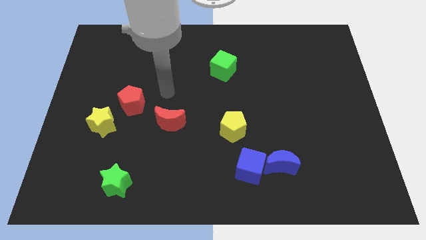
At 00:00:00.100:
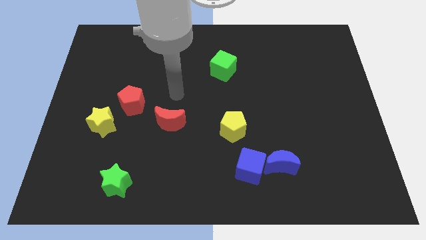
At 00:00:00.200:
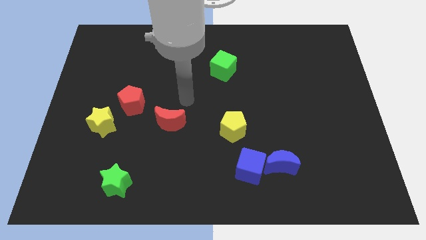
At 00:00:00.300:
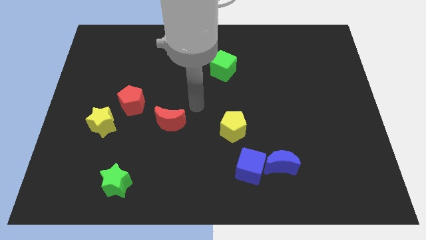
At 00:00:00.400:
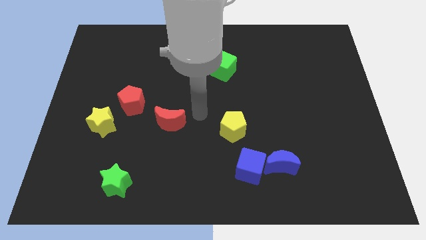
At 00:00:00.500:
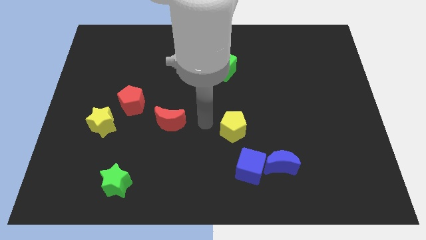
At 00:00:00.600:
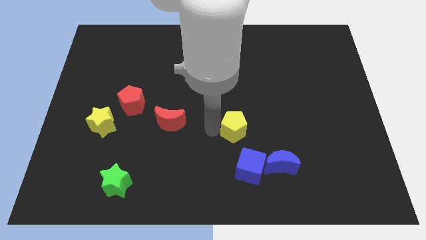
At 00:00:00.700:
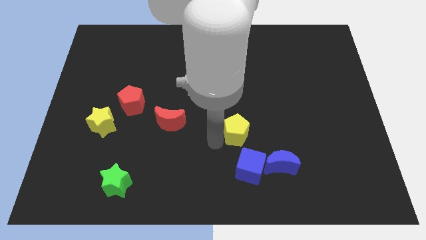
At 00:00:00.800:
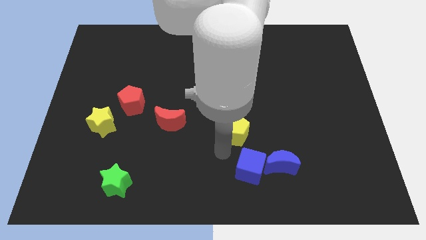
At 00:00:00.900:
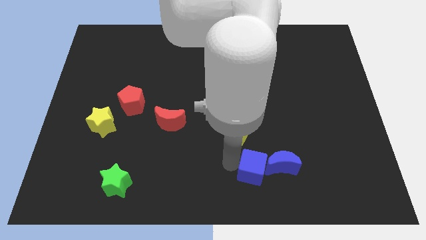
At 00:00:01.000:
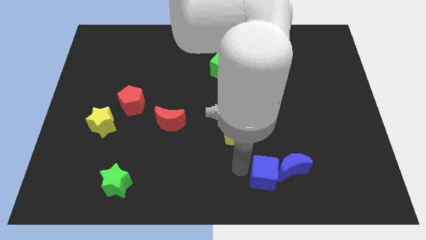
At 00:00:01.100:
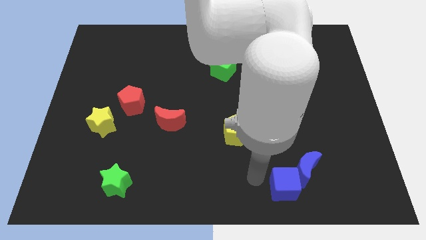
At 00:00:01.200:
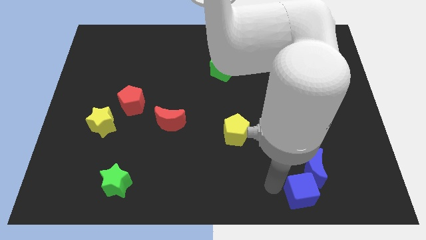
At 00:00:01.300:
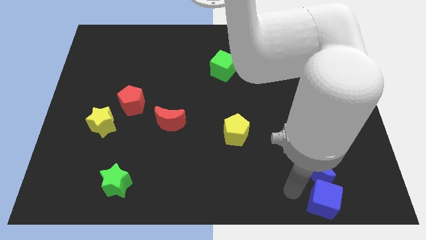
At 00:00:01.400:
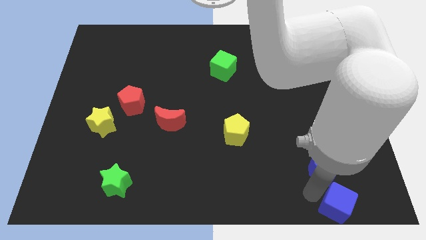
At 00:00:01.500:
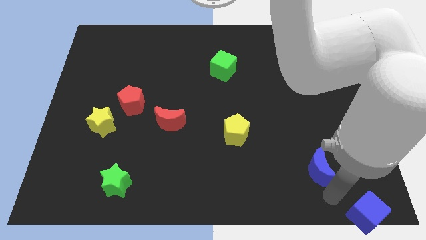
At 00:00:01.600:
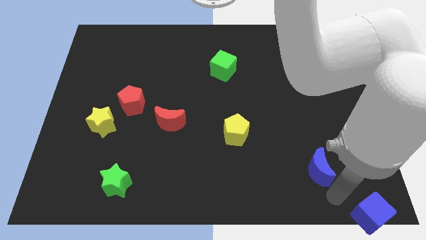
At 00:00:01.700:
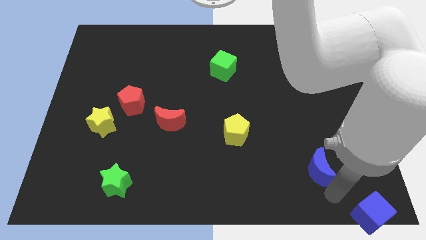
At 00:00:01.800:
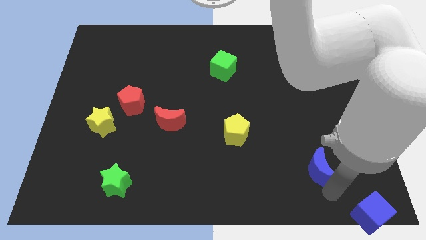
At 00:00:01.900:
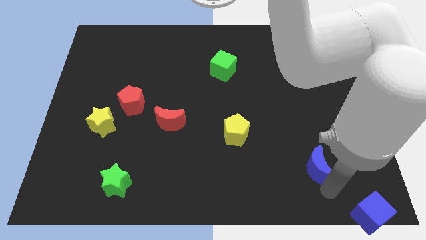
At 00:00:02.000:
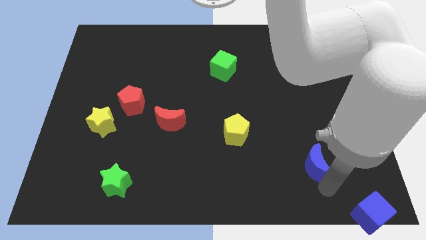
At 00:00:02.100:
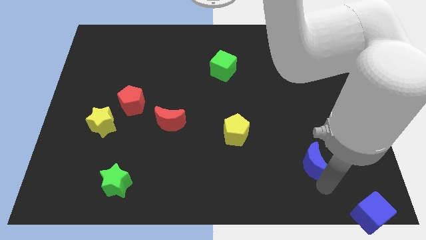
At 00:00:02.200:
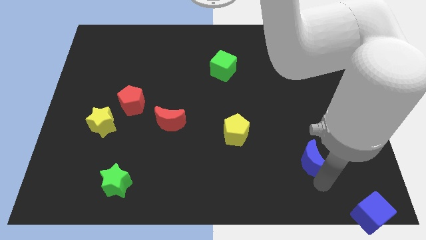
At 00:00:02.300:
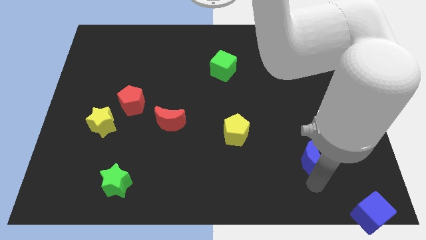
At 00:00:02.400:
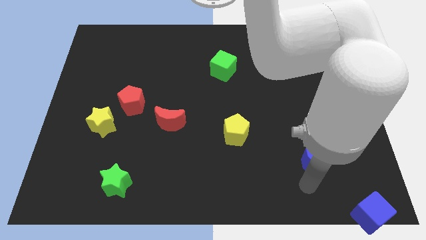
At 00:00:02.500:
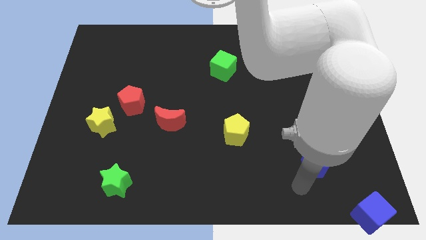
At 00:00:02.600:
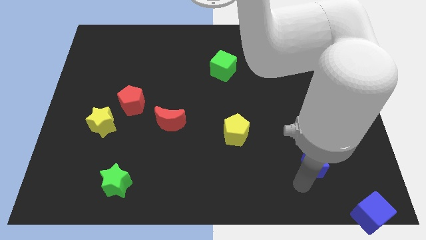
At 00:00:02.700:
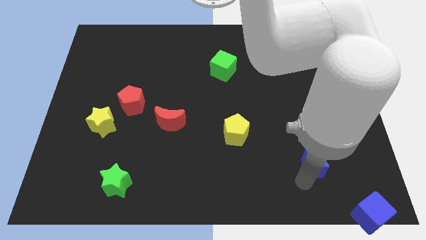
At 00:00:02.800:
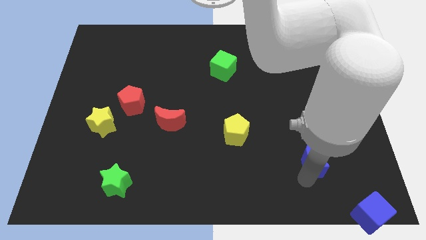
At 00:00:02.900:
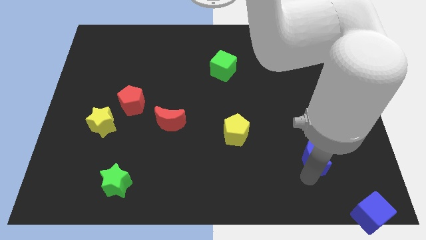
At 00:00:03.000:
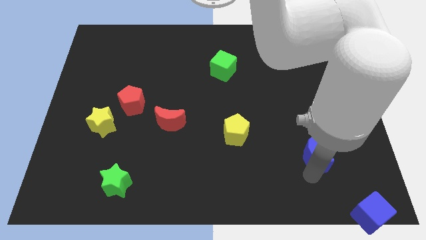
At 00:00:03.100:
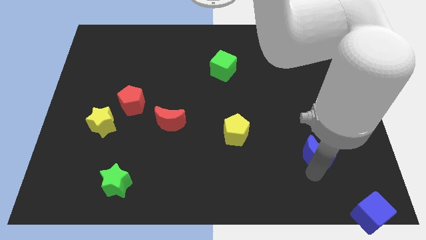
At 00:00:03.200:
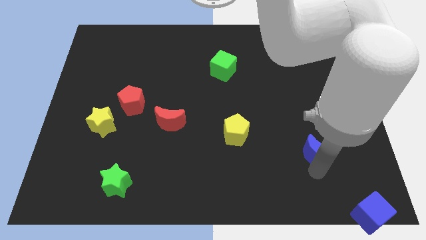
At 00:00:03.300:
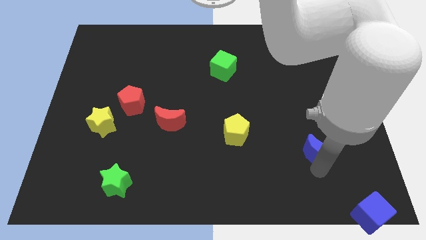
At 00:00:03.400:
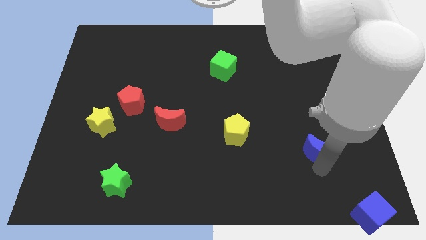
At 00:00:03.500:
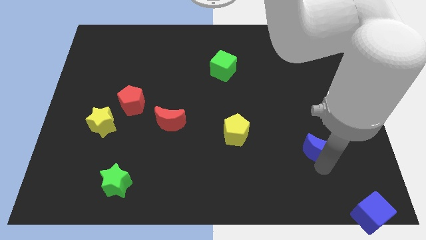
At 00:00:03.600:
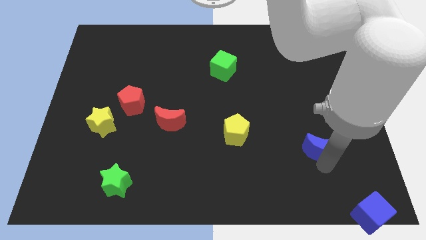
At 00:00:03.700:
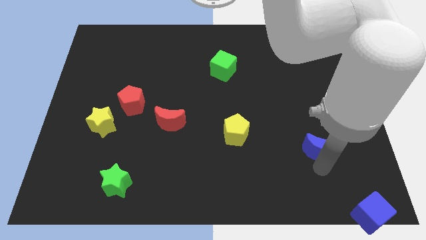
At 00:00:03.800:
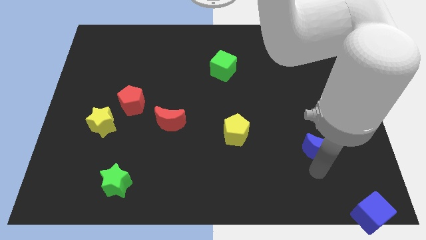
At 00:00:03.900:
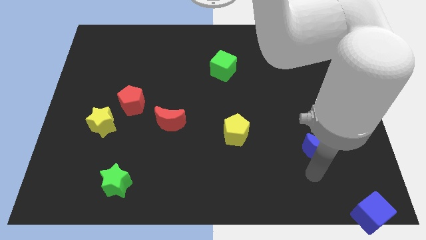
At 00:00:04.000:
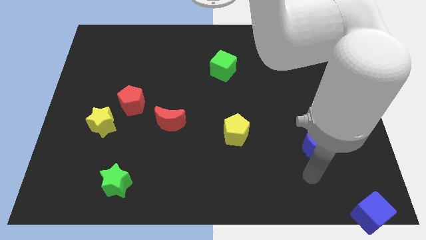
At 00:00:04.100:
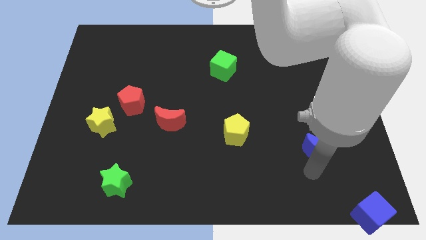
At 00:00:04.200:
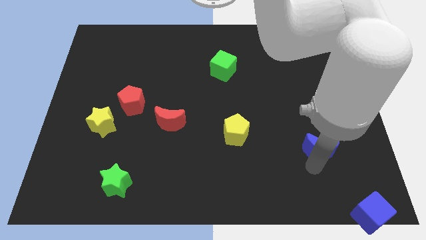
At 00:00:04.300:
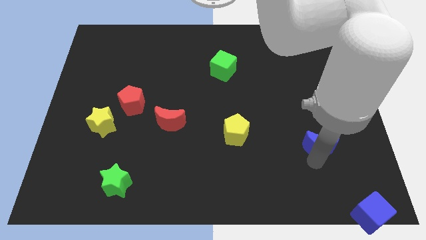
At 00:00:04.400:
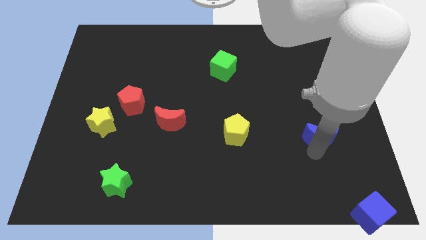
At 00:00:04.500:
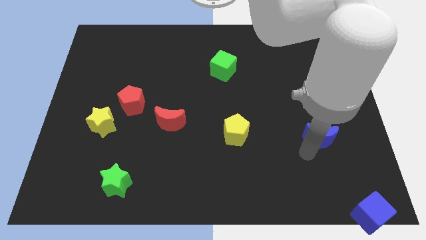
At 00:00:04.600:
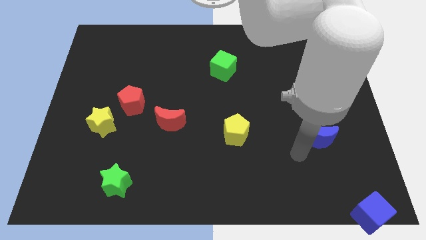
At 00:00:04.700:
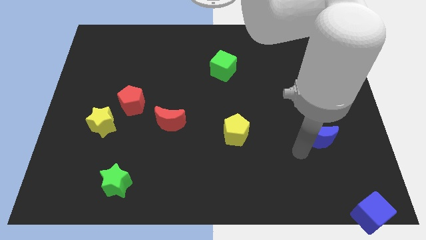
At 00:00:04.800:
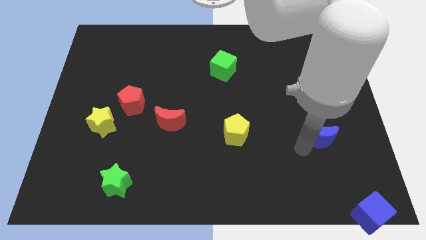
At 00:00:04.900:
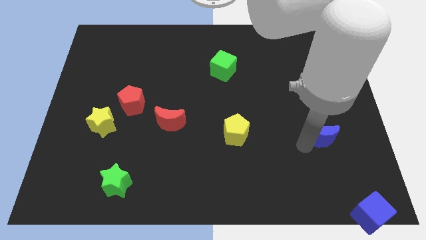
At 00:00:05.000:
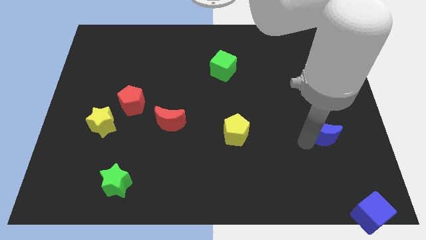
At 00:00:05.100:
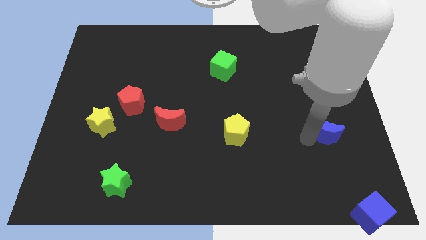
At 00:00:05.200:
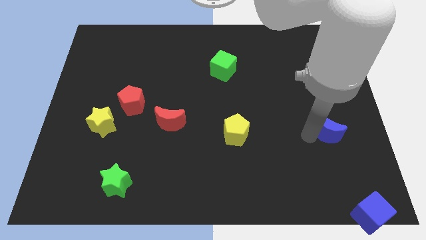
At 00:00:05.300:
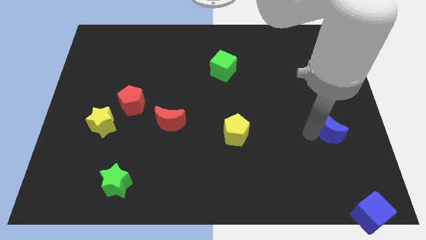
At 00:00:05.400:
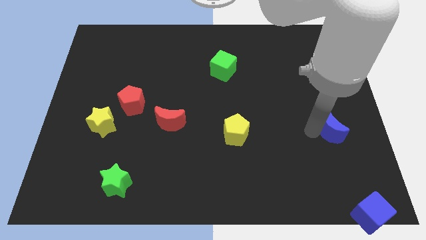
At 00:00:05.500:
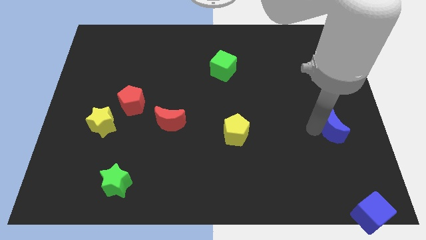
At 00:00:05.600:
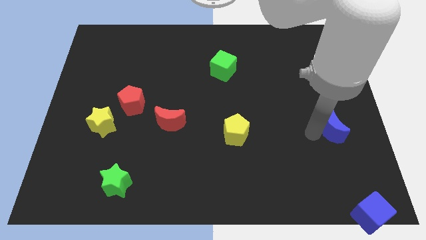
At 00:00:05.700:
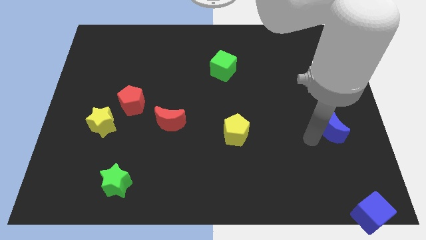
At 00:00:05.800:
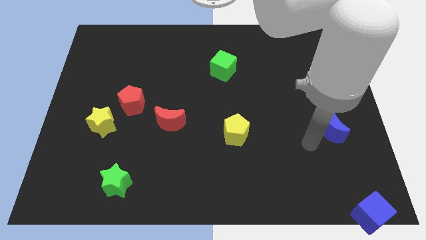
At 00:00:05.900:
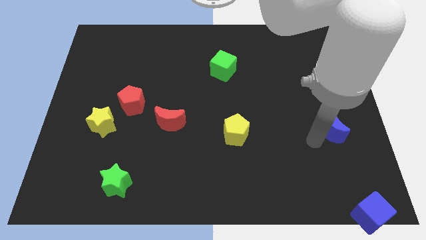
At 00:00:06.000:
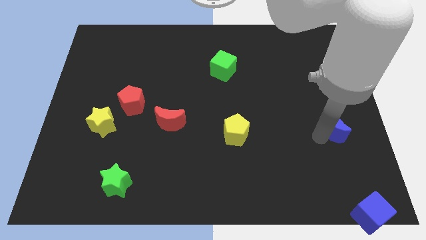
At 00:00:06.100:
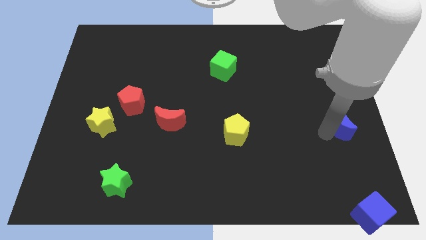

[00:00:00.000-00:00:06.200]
push the blue moon to the right side

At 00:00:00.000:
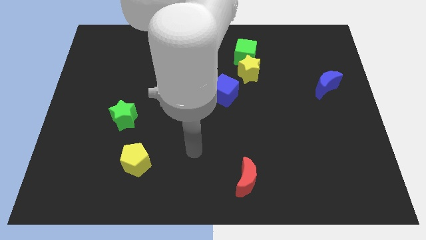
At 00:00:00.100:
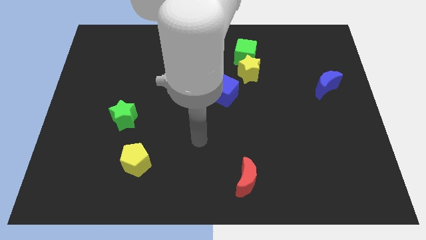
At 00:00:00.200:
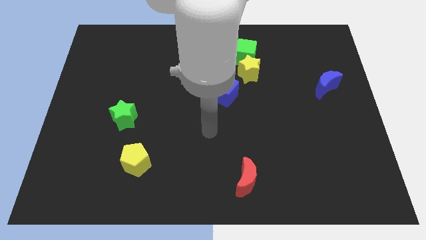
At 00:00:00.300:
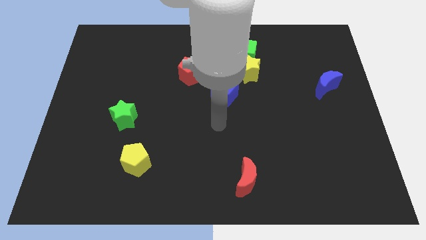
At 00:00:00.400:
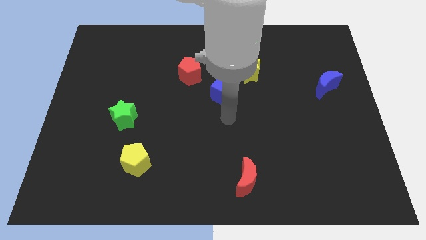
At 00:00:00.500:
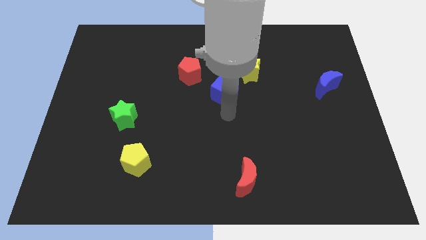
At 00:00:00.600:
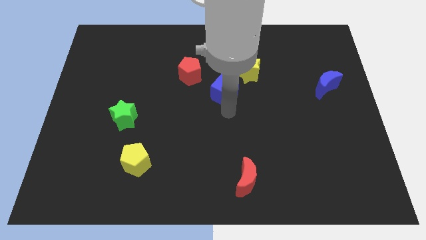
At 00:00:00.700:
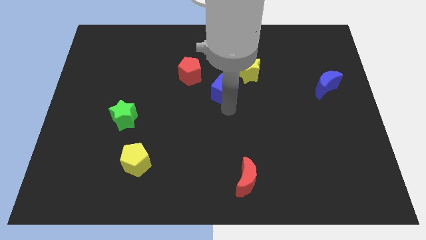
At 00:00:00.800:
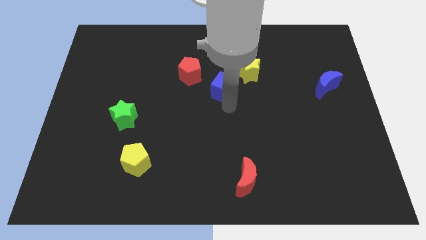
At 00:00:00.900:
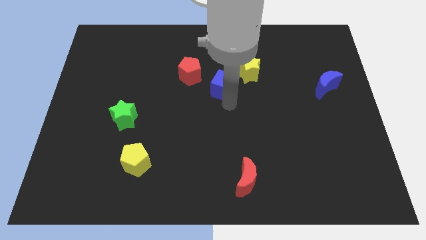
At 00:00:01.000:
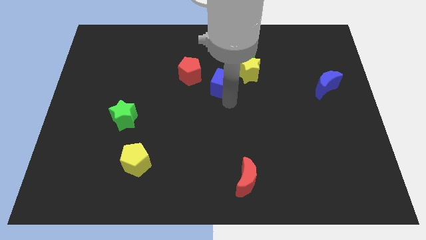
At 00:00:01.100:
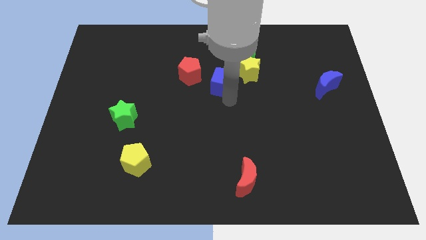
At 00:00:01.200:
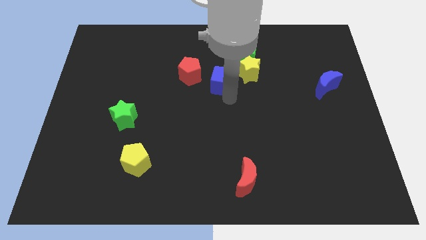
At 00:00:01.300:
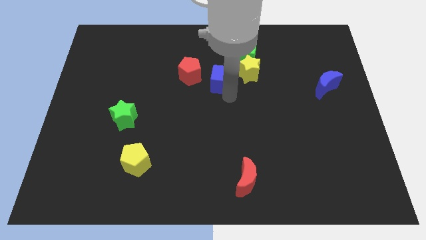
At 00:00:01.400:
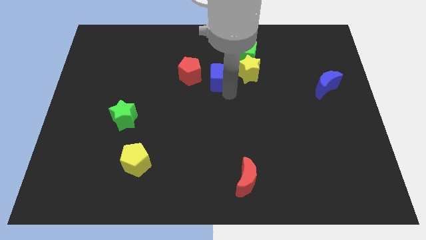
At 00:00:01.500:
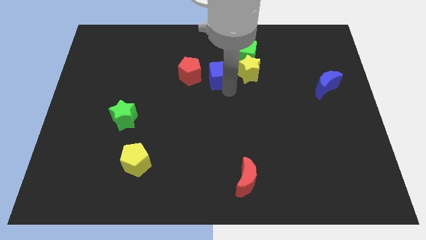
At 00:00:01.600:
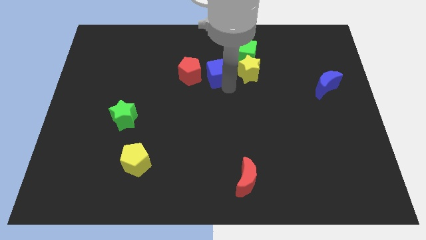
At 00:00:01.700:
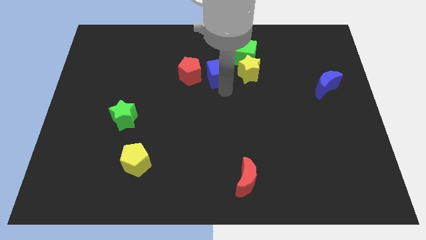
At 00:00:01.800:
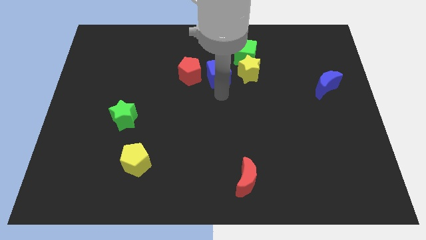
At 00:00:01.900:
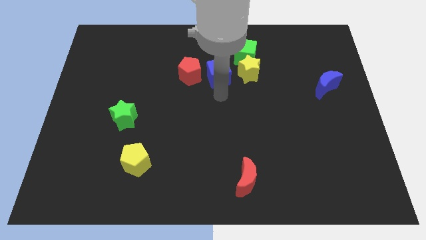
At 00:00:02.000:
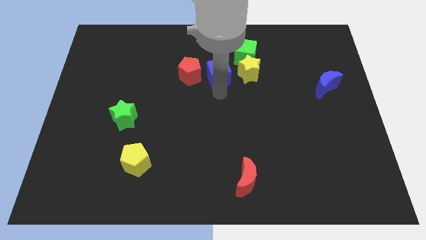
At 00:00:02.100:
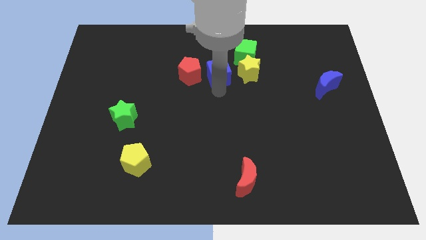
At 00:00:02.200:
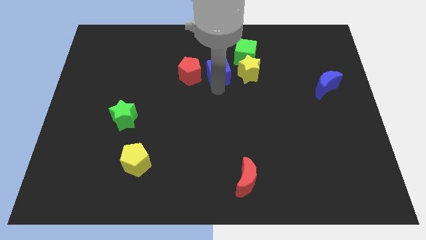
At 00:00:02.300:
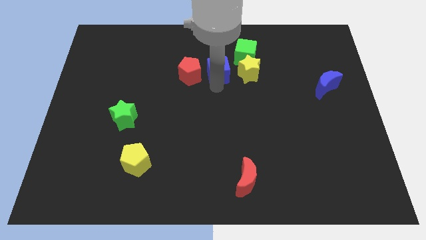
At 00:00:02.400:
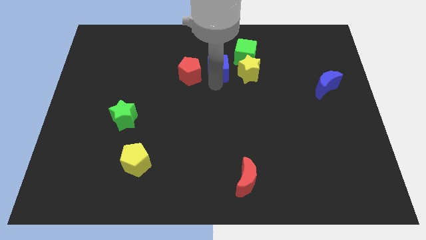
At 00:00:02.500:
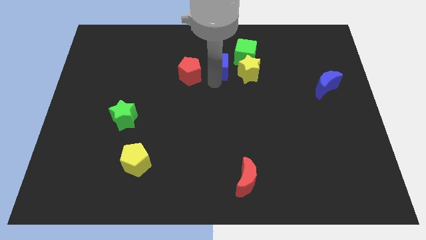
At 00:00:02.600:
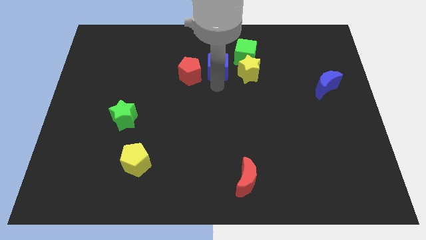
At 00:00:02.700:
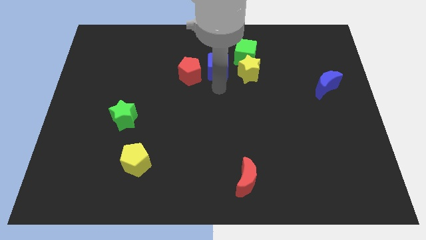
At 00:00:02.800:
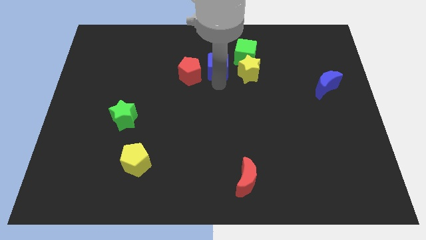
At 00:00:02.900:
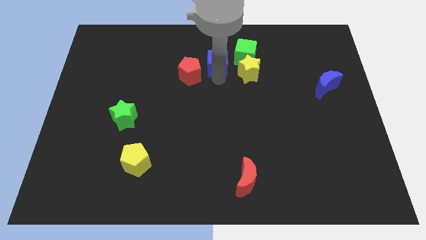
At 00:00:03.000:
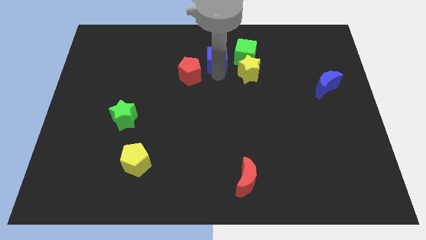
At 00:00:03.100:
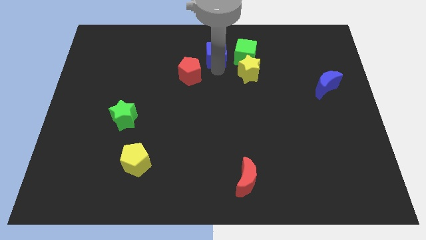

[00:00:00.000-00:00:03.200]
put the blue cube to the top side
